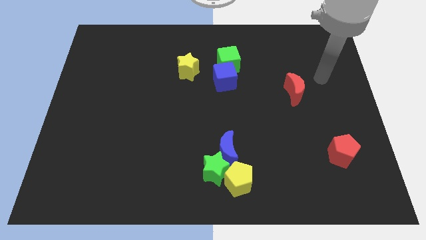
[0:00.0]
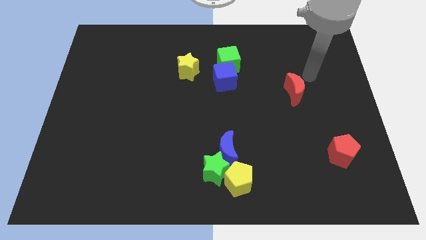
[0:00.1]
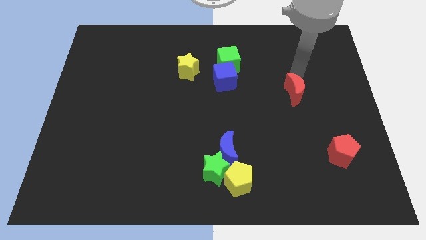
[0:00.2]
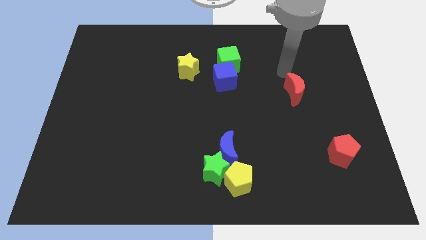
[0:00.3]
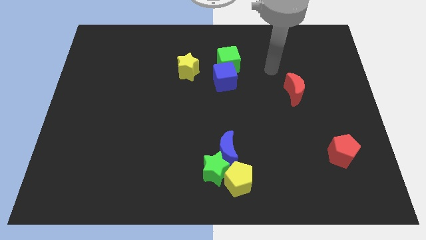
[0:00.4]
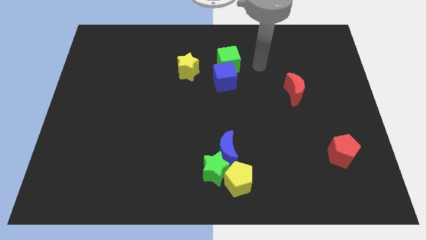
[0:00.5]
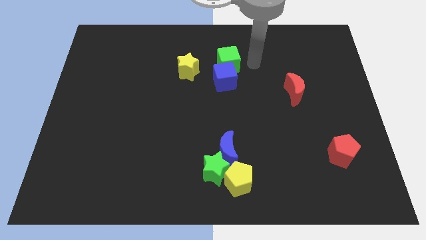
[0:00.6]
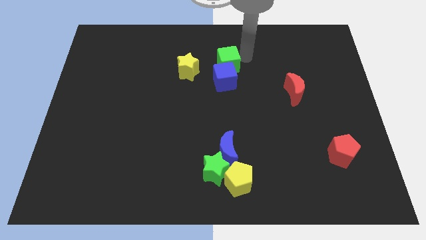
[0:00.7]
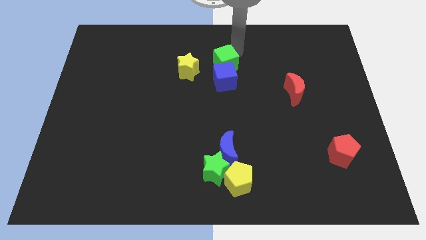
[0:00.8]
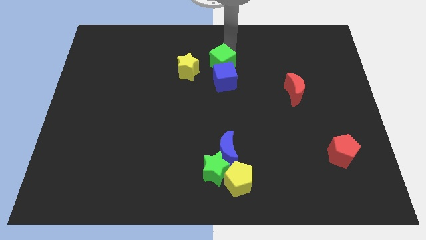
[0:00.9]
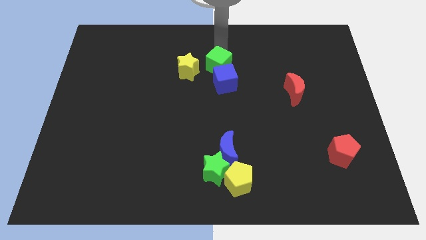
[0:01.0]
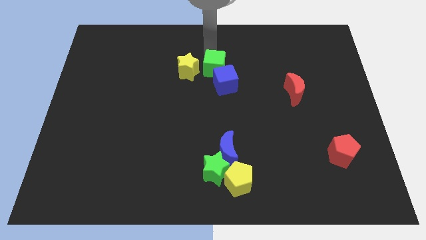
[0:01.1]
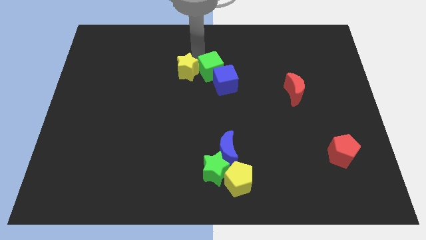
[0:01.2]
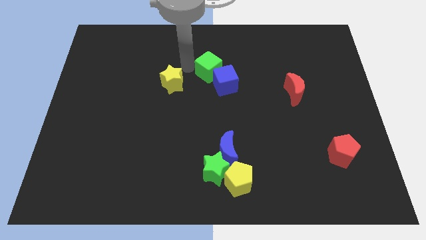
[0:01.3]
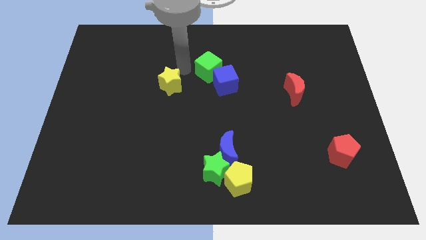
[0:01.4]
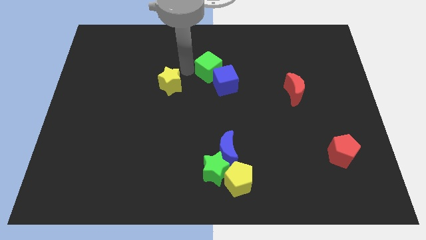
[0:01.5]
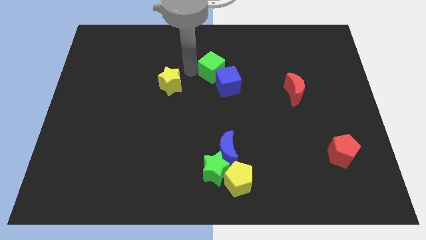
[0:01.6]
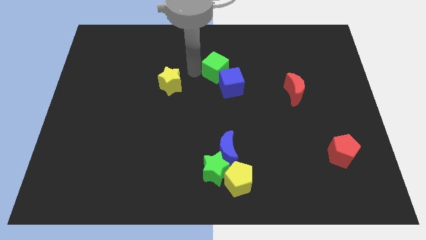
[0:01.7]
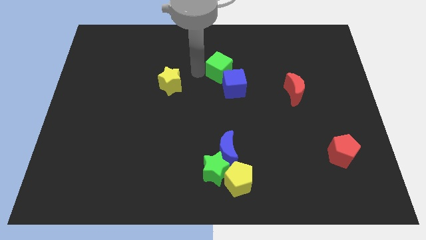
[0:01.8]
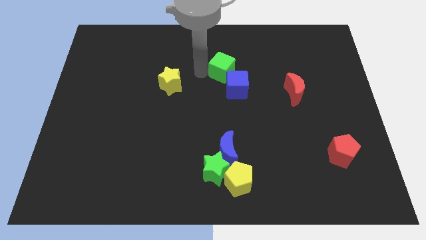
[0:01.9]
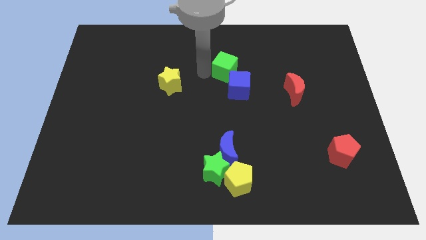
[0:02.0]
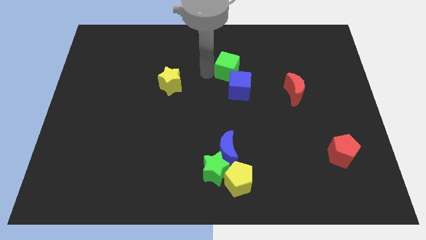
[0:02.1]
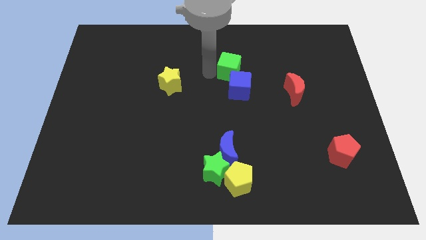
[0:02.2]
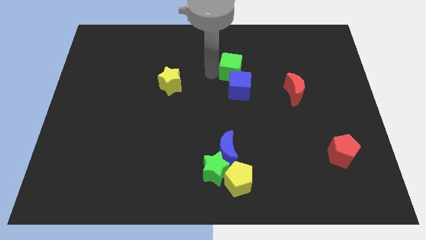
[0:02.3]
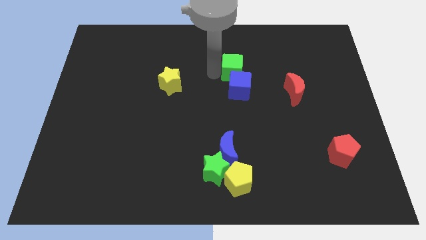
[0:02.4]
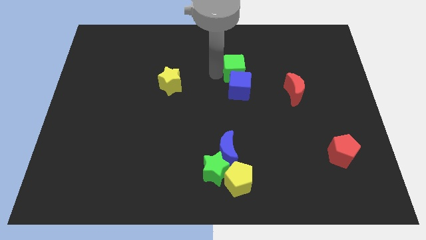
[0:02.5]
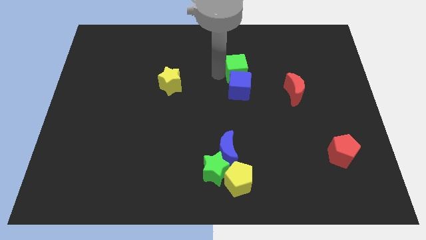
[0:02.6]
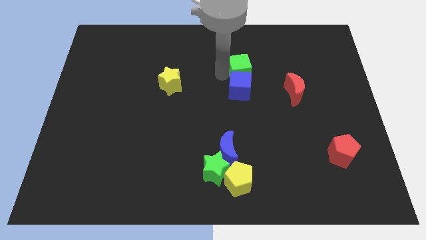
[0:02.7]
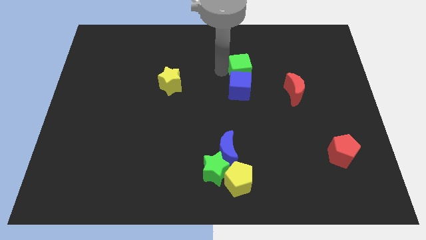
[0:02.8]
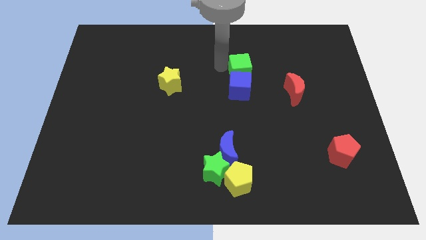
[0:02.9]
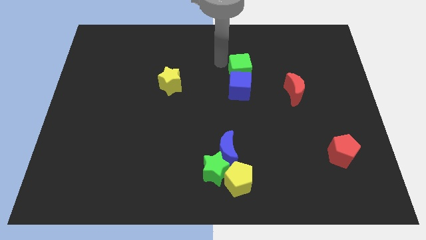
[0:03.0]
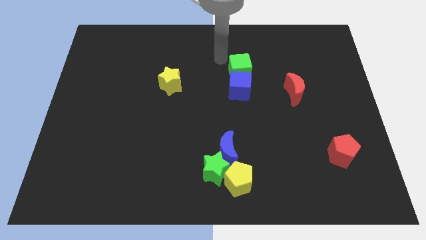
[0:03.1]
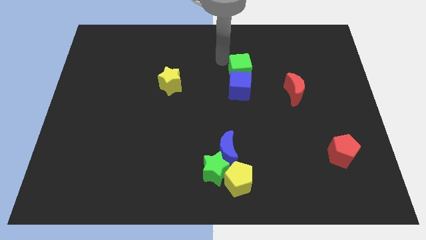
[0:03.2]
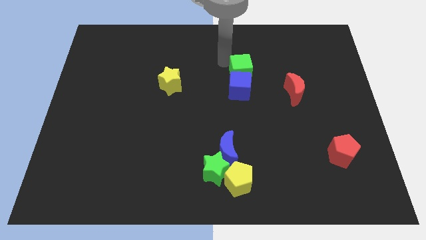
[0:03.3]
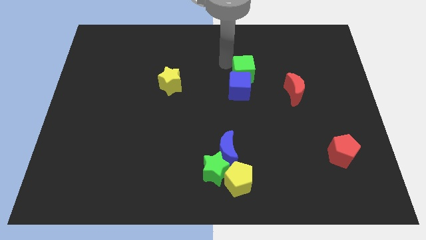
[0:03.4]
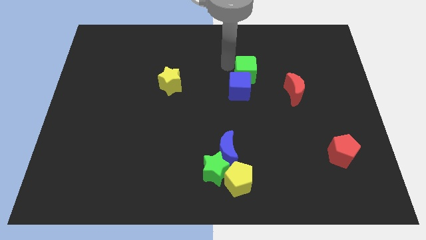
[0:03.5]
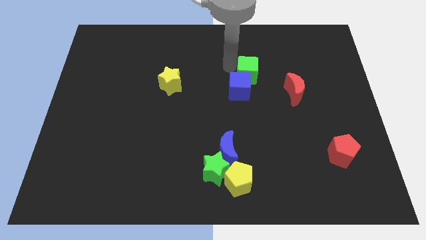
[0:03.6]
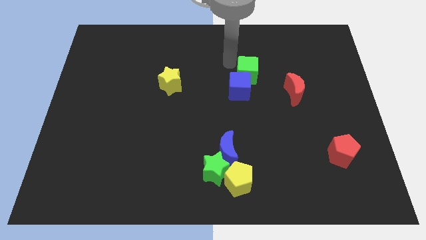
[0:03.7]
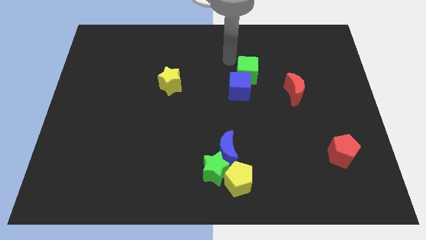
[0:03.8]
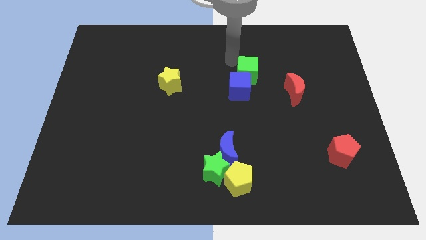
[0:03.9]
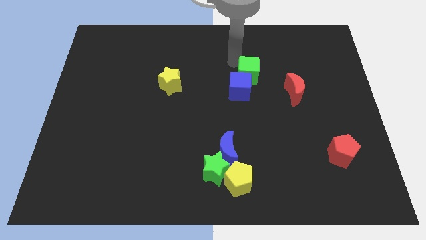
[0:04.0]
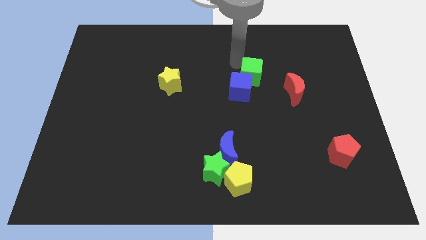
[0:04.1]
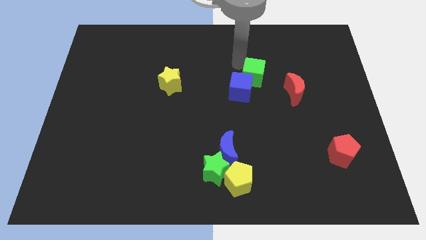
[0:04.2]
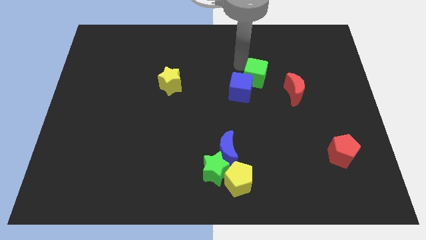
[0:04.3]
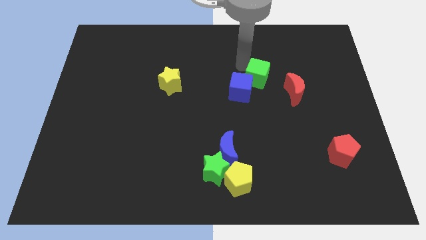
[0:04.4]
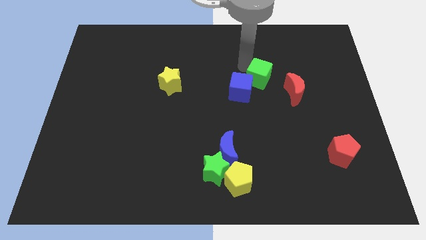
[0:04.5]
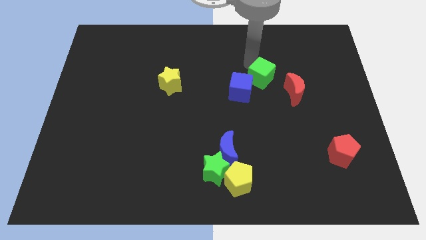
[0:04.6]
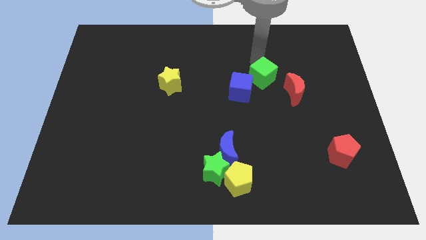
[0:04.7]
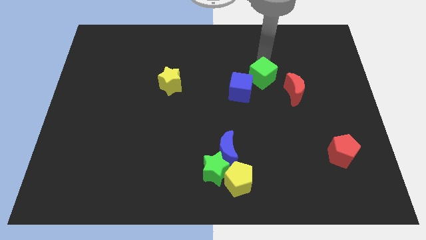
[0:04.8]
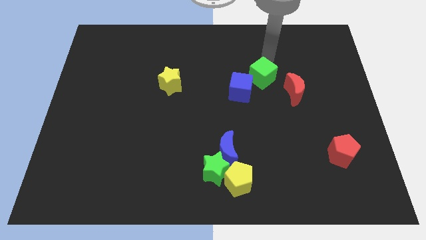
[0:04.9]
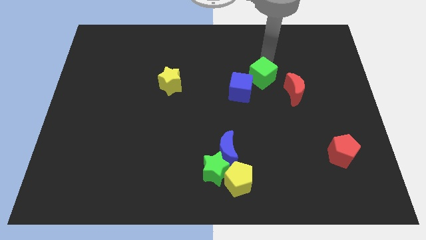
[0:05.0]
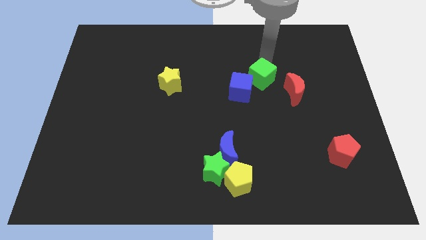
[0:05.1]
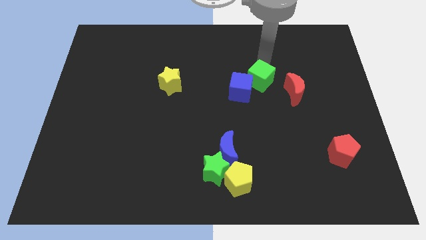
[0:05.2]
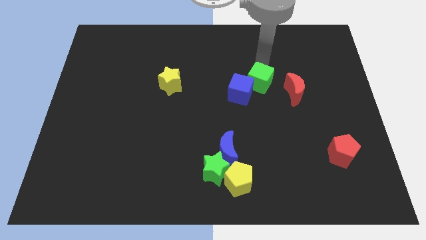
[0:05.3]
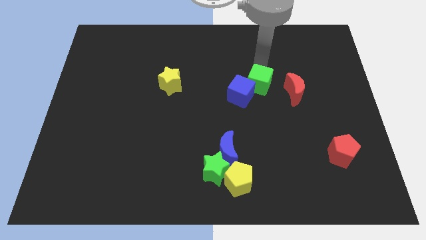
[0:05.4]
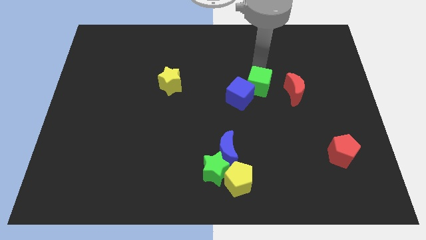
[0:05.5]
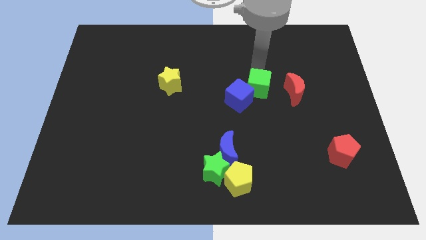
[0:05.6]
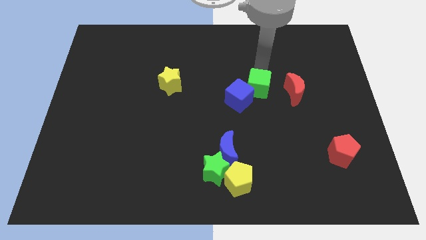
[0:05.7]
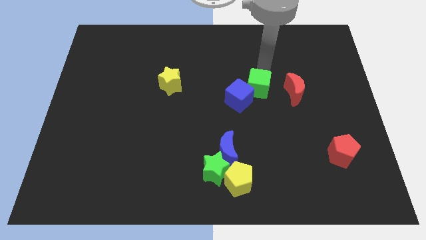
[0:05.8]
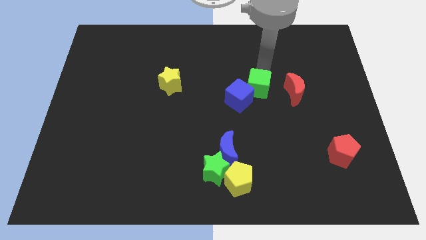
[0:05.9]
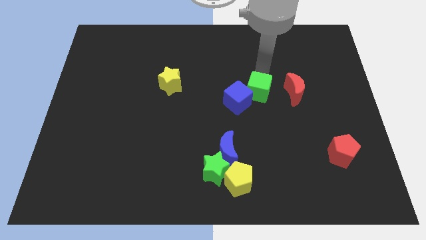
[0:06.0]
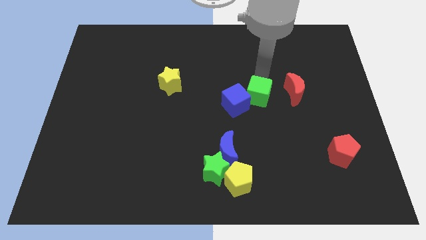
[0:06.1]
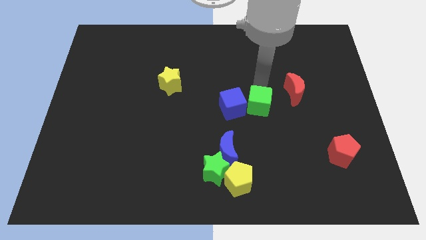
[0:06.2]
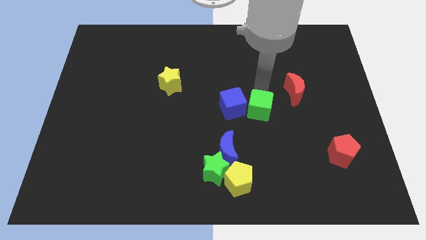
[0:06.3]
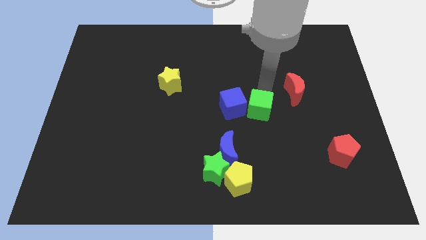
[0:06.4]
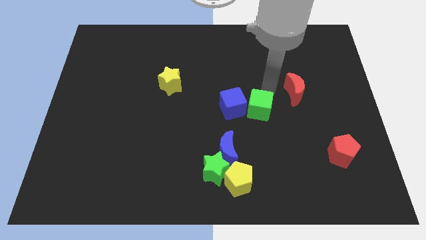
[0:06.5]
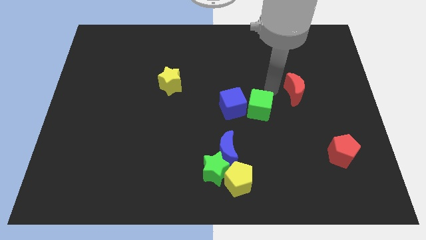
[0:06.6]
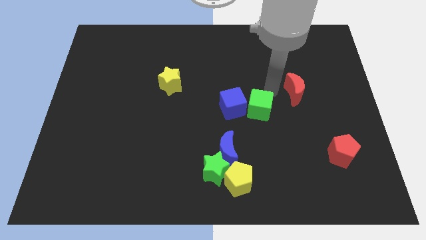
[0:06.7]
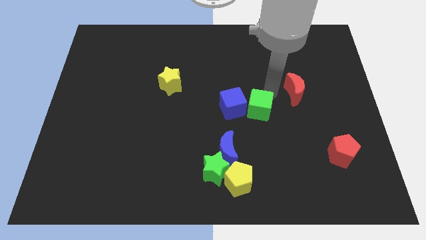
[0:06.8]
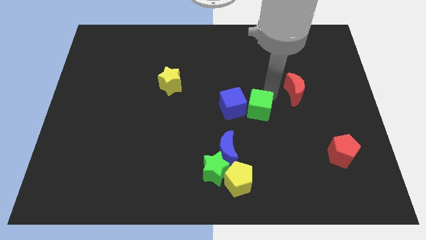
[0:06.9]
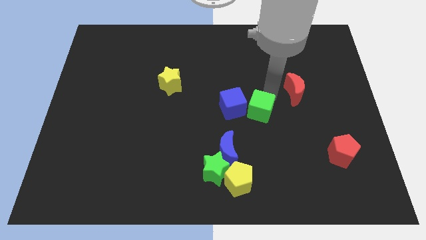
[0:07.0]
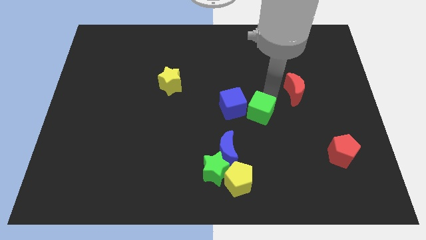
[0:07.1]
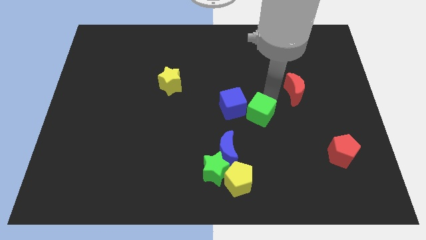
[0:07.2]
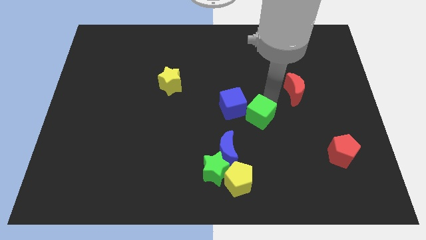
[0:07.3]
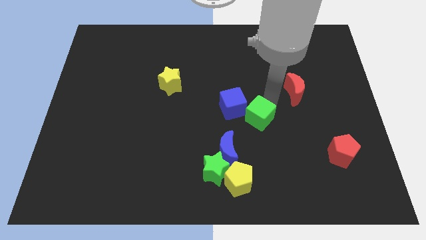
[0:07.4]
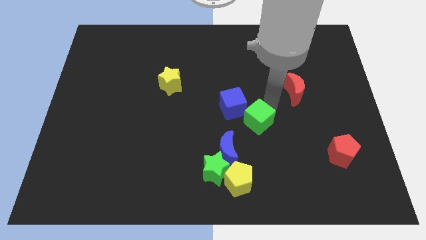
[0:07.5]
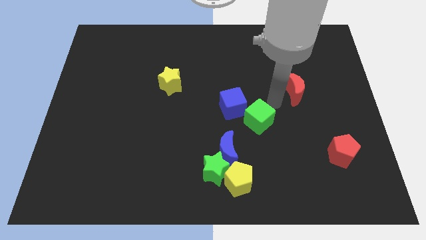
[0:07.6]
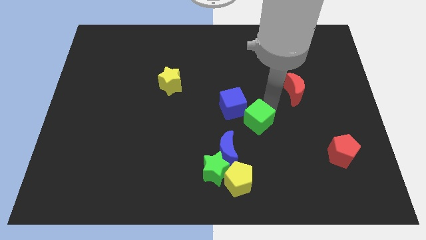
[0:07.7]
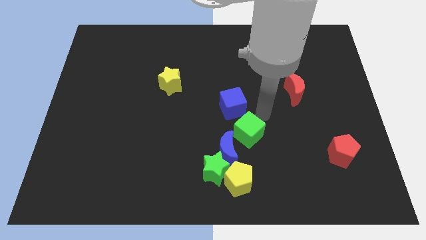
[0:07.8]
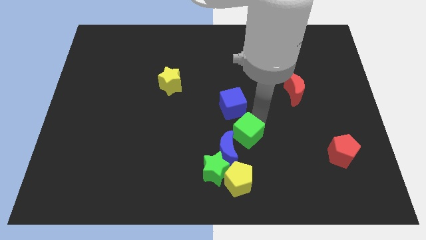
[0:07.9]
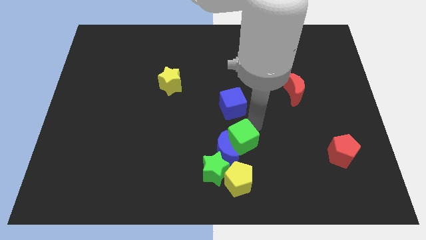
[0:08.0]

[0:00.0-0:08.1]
slide the green cube to the blue moon

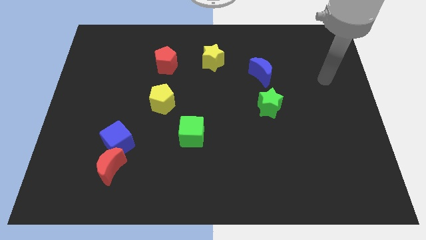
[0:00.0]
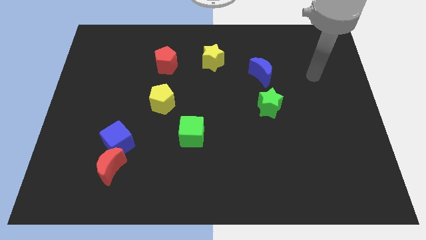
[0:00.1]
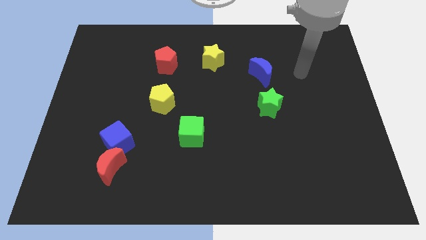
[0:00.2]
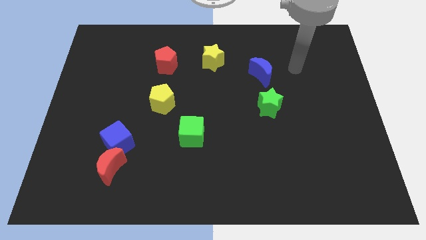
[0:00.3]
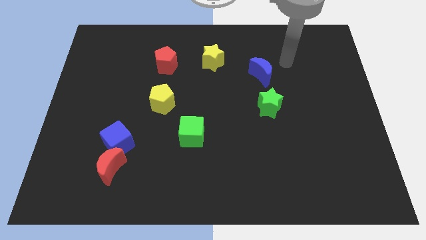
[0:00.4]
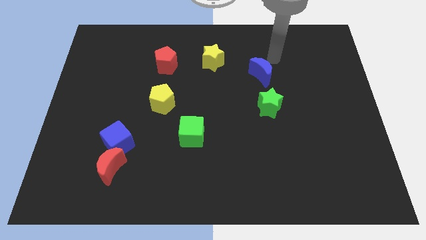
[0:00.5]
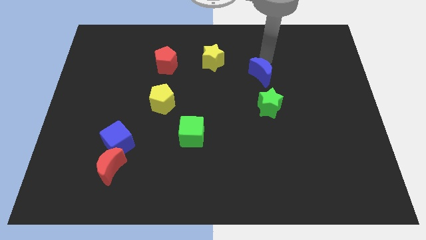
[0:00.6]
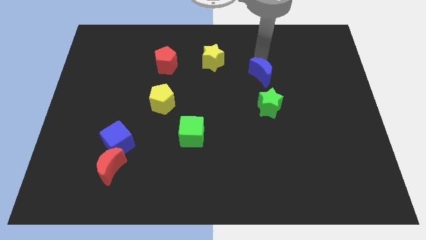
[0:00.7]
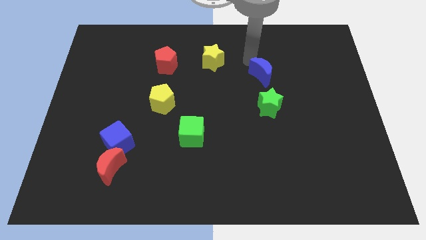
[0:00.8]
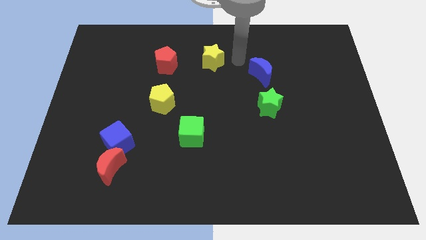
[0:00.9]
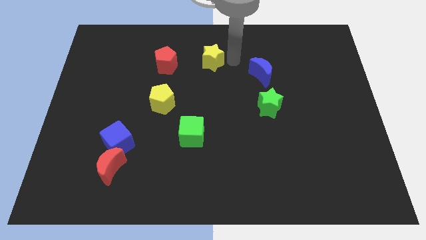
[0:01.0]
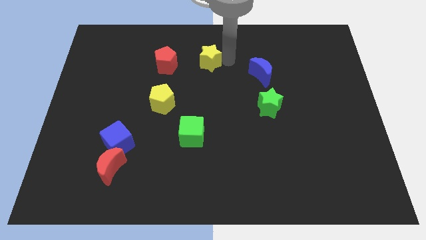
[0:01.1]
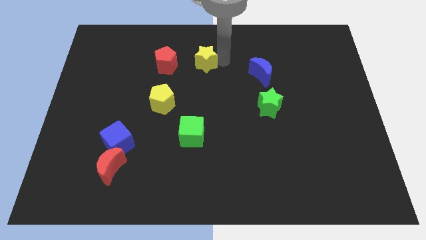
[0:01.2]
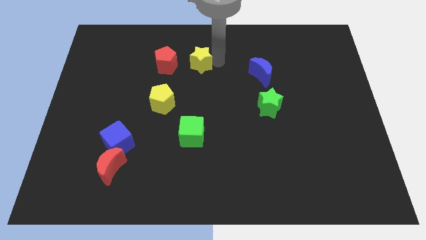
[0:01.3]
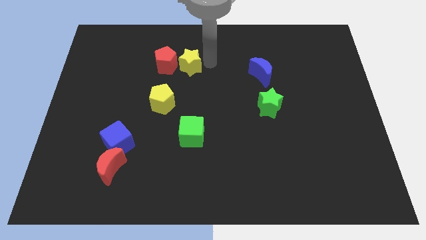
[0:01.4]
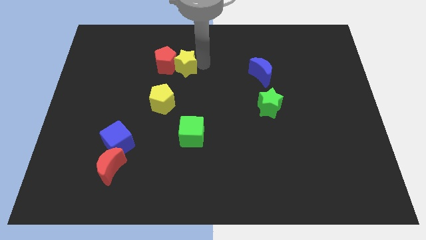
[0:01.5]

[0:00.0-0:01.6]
slide the yellow star close to the red pentagon
